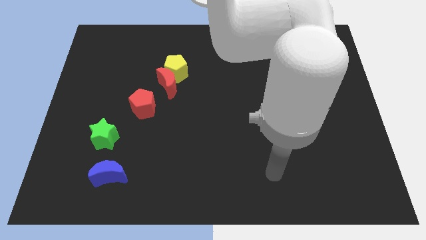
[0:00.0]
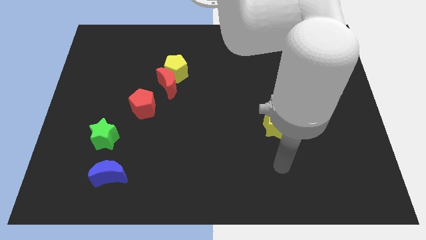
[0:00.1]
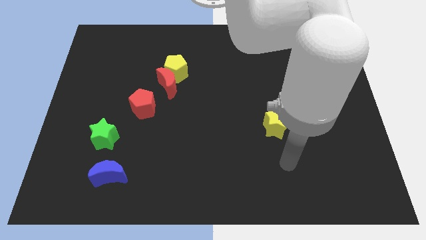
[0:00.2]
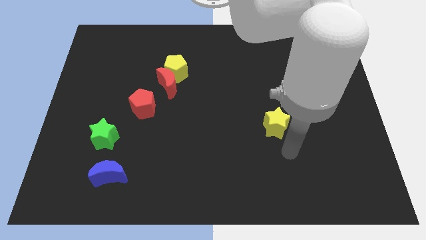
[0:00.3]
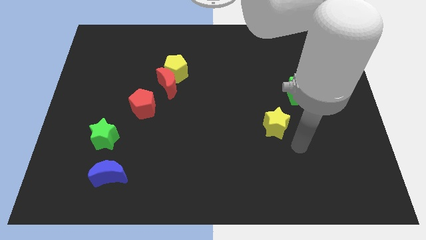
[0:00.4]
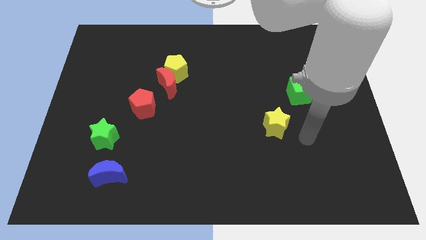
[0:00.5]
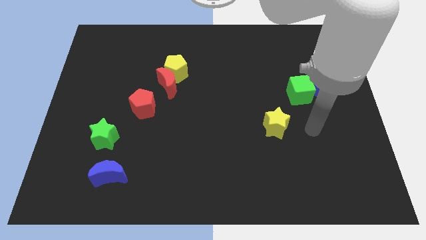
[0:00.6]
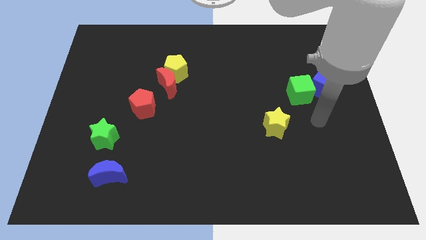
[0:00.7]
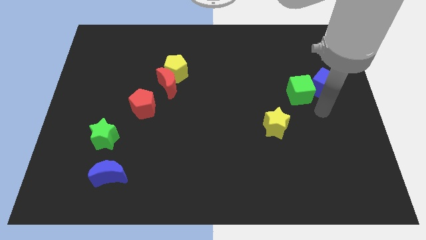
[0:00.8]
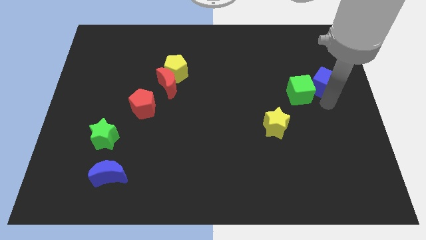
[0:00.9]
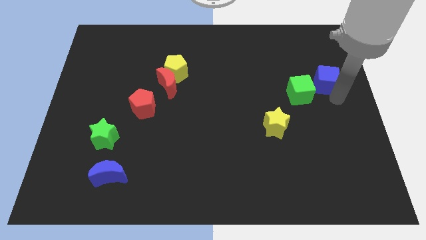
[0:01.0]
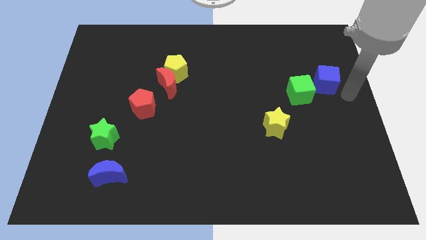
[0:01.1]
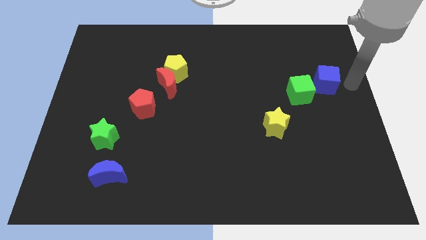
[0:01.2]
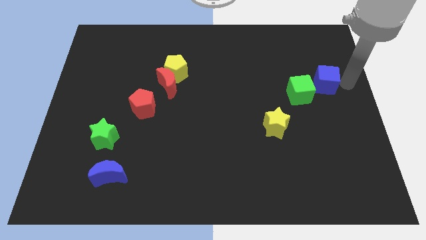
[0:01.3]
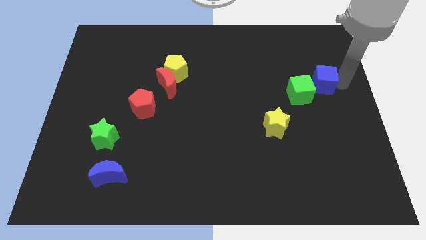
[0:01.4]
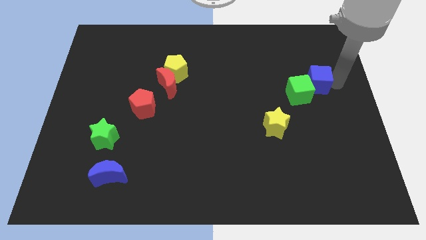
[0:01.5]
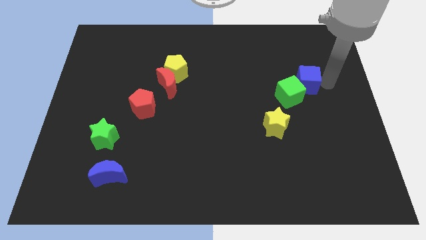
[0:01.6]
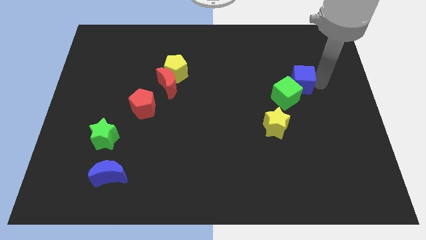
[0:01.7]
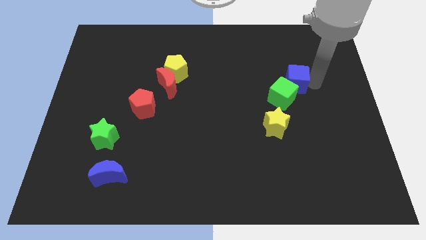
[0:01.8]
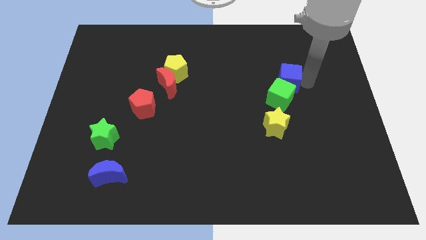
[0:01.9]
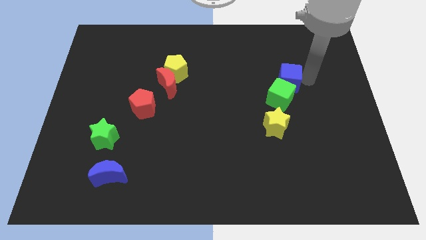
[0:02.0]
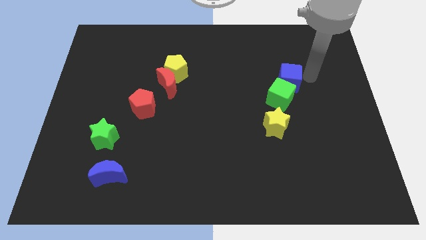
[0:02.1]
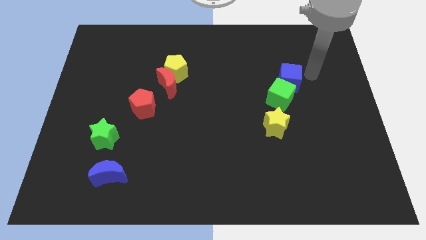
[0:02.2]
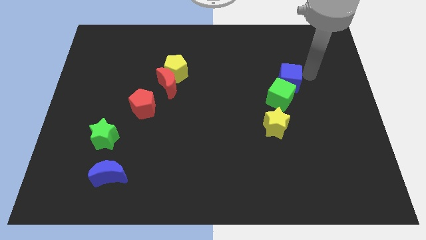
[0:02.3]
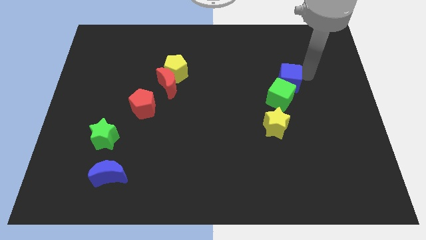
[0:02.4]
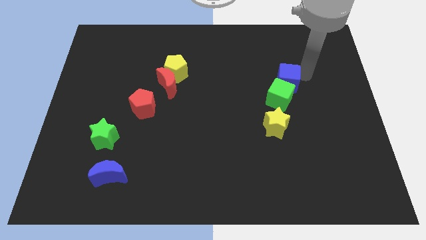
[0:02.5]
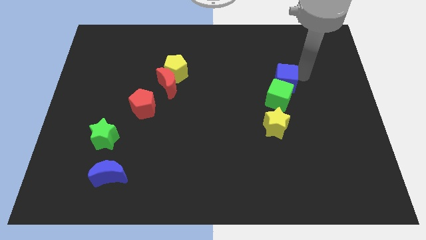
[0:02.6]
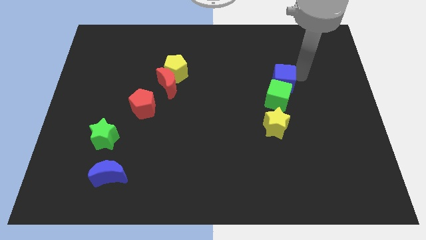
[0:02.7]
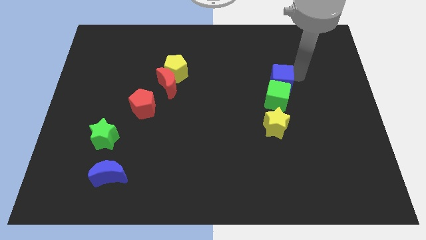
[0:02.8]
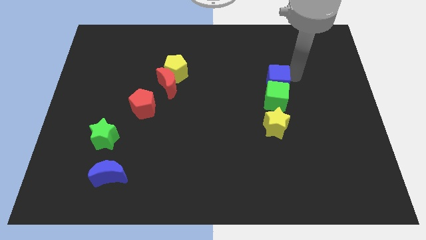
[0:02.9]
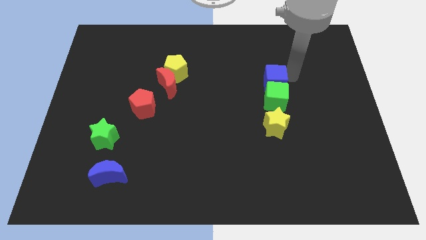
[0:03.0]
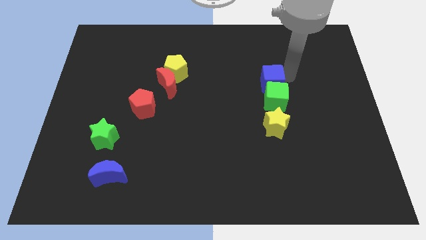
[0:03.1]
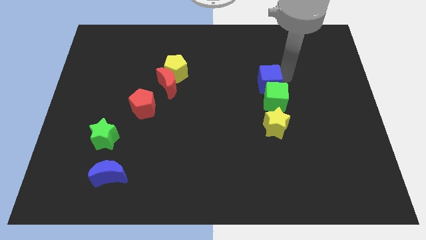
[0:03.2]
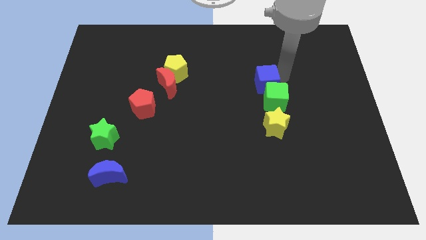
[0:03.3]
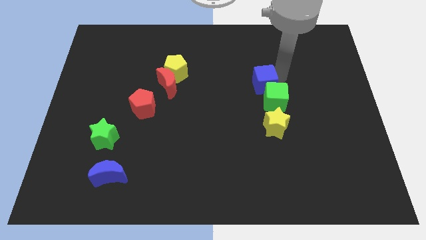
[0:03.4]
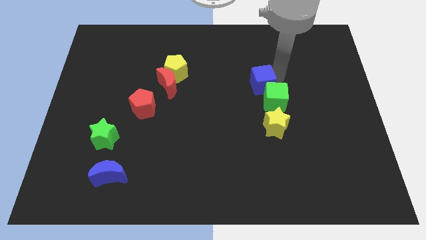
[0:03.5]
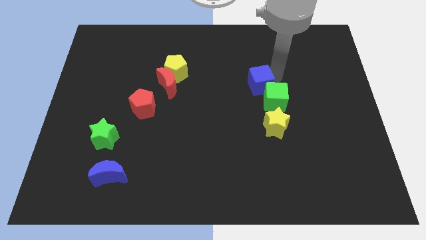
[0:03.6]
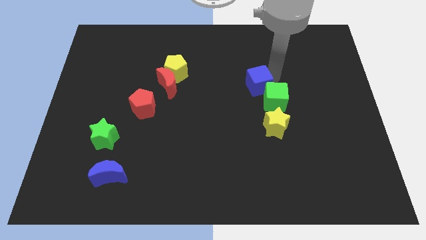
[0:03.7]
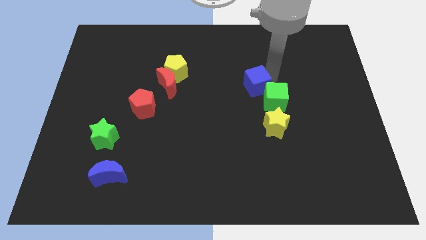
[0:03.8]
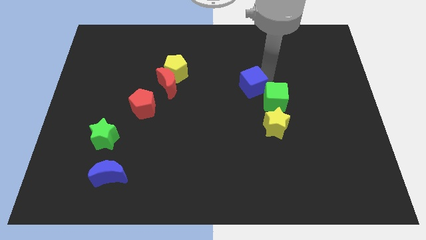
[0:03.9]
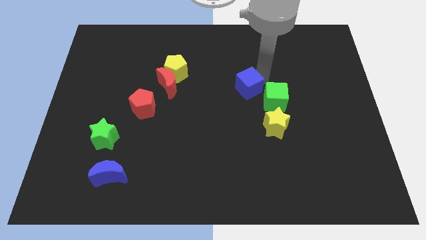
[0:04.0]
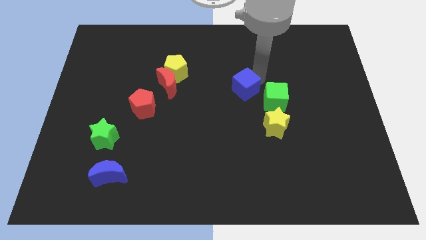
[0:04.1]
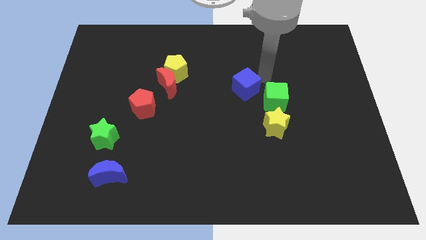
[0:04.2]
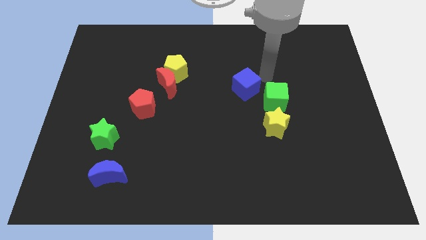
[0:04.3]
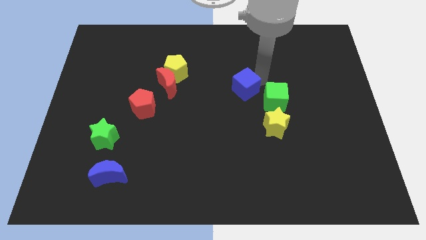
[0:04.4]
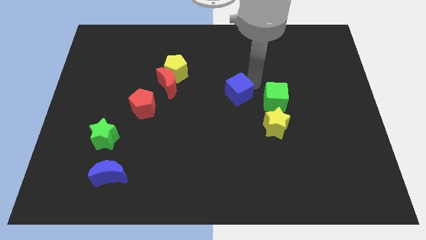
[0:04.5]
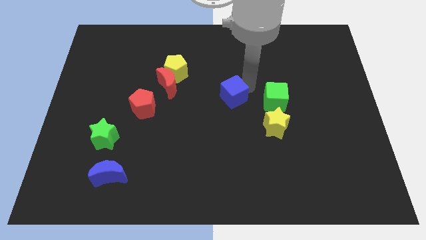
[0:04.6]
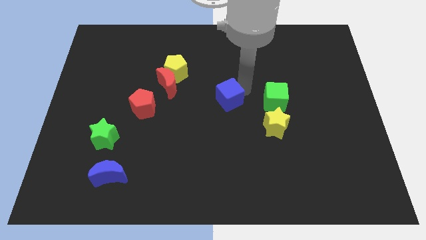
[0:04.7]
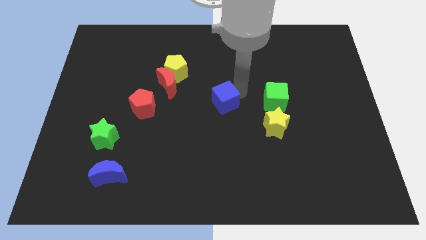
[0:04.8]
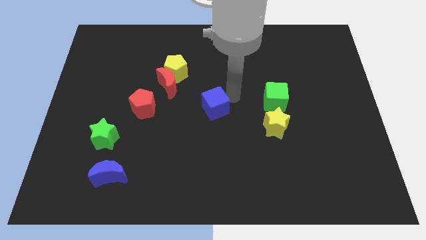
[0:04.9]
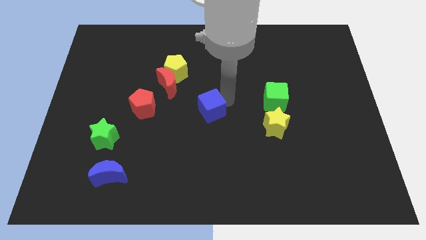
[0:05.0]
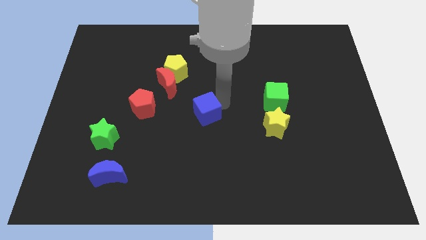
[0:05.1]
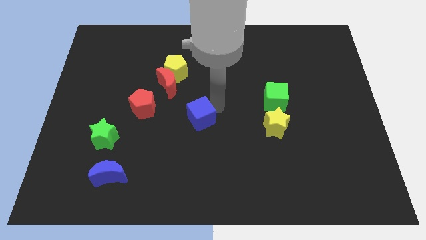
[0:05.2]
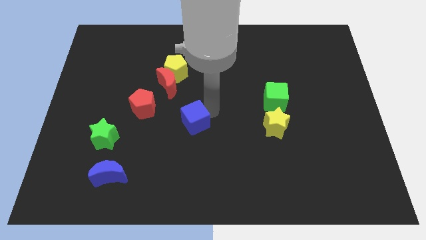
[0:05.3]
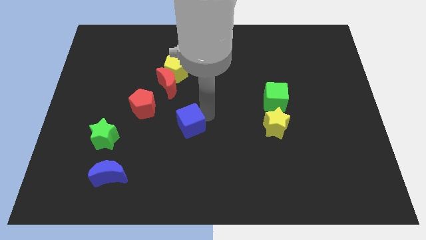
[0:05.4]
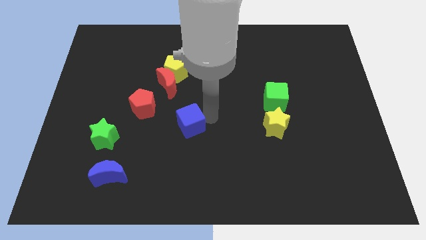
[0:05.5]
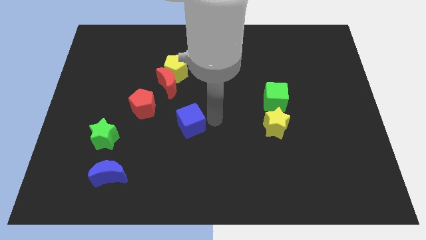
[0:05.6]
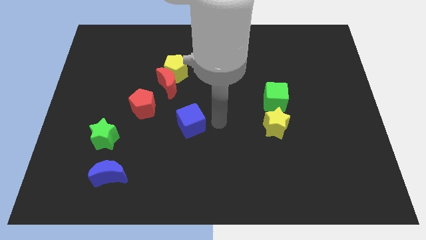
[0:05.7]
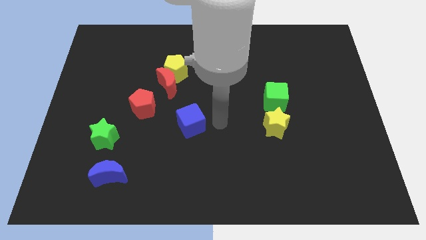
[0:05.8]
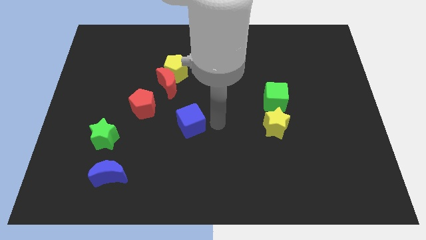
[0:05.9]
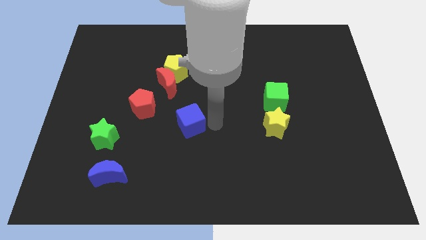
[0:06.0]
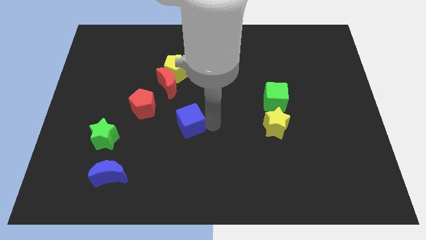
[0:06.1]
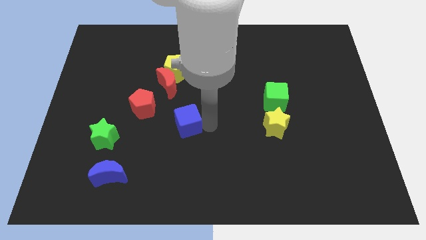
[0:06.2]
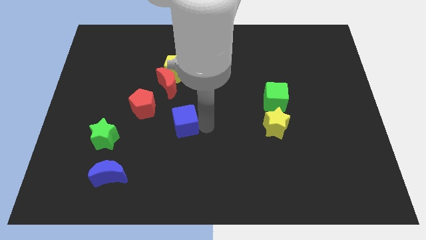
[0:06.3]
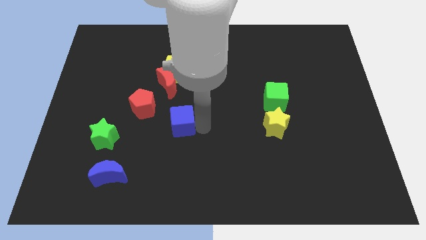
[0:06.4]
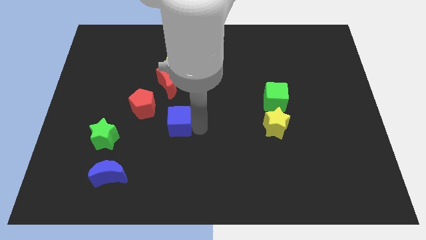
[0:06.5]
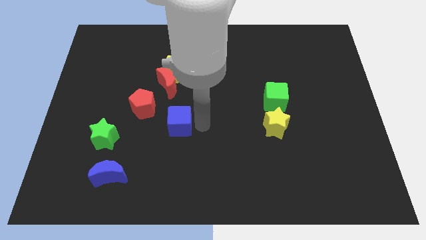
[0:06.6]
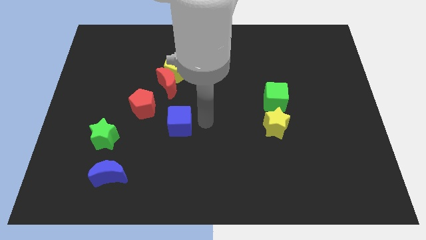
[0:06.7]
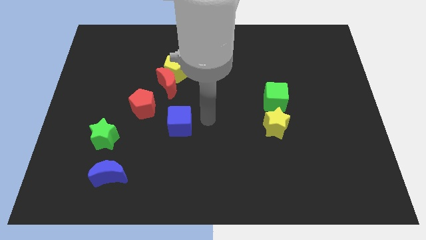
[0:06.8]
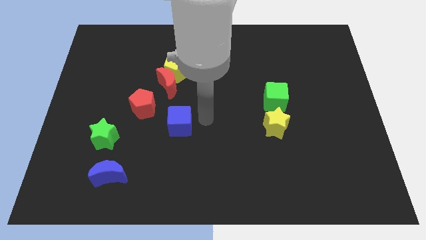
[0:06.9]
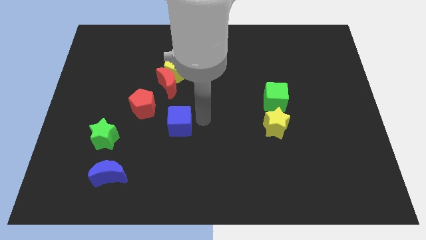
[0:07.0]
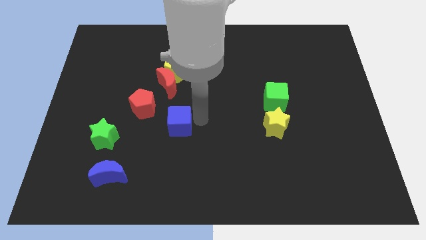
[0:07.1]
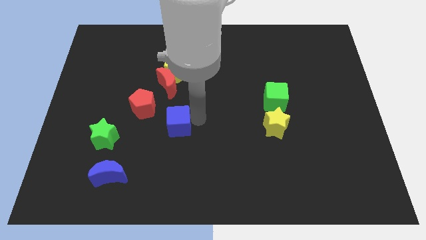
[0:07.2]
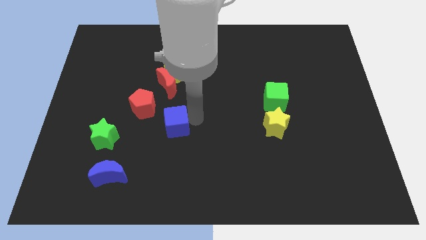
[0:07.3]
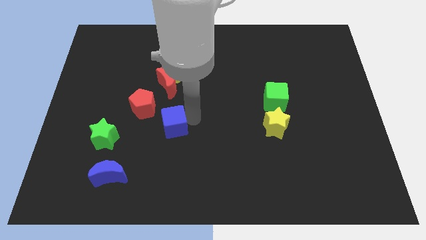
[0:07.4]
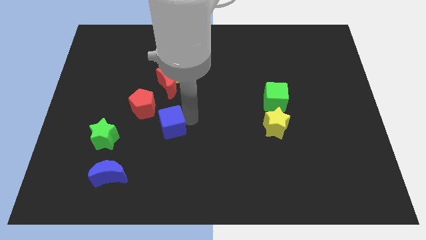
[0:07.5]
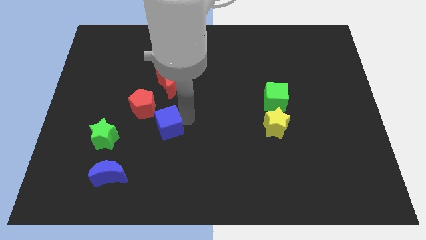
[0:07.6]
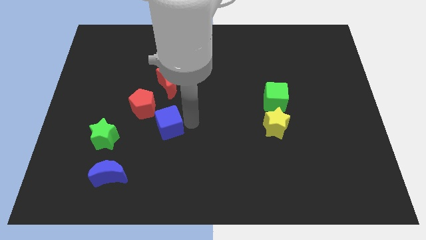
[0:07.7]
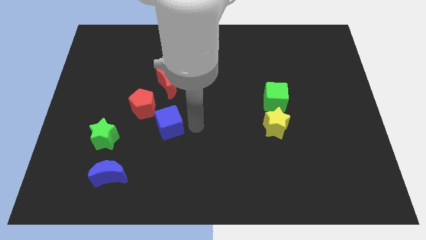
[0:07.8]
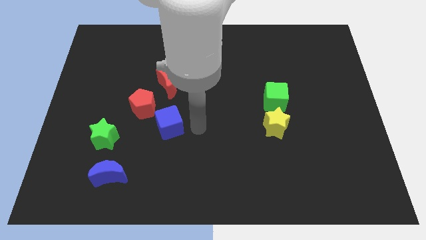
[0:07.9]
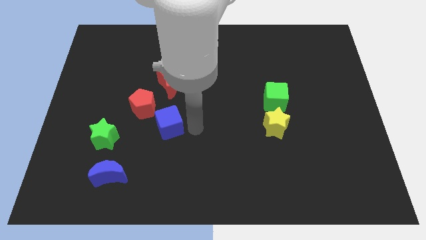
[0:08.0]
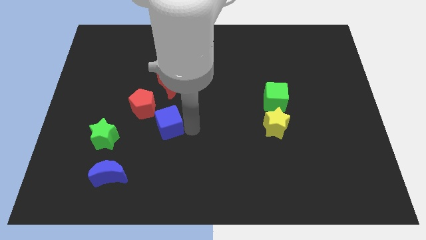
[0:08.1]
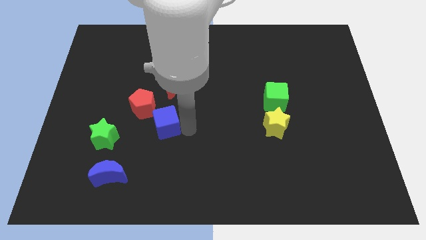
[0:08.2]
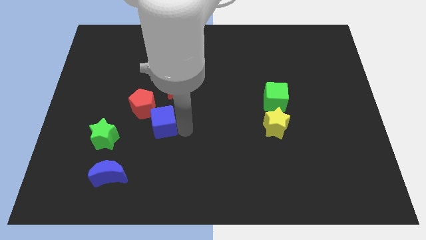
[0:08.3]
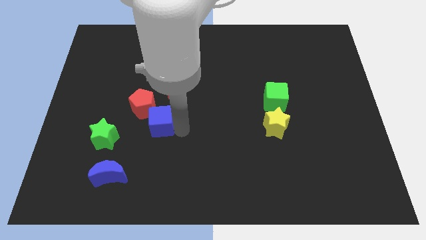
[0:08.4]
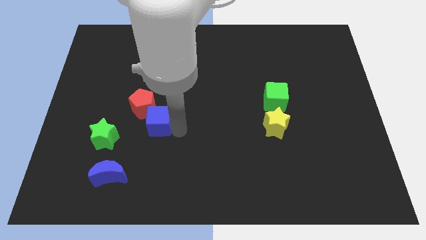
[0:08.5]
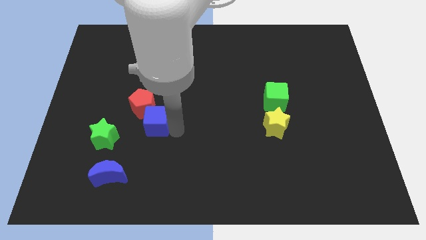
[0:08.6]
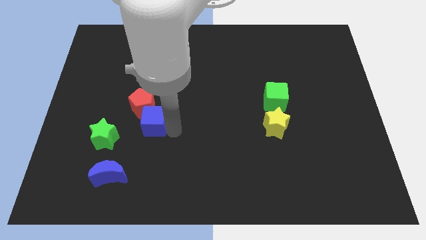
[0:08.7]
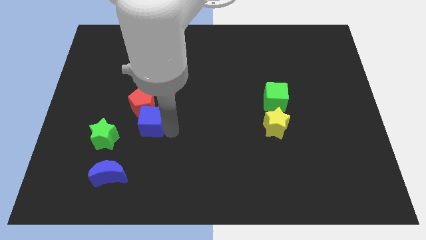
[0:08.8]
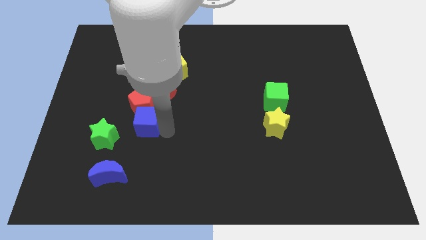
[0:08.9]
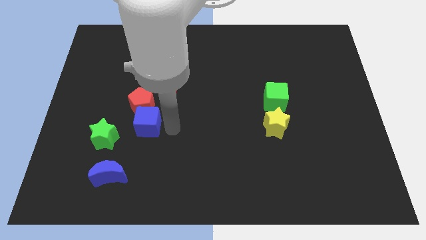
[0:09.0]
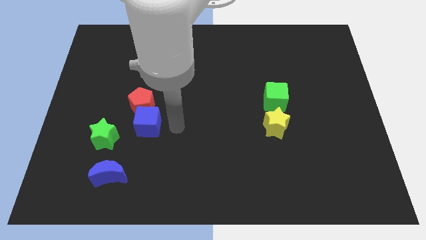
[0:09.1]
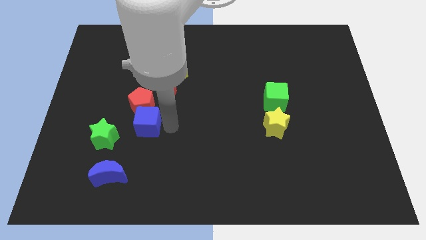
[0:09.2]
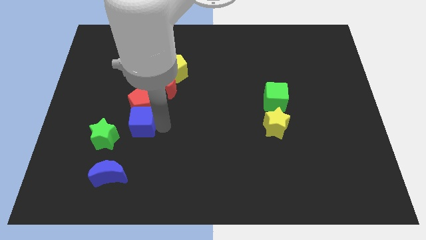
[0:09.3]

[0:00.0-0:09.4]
push the blue cube to the bottom left of the red pentagon
